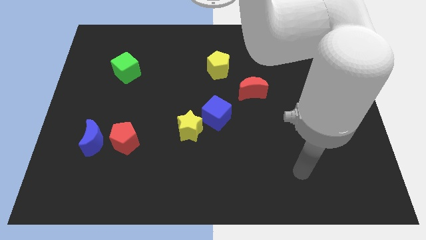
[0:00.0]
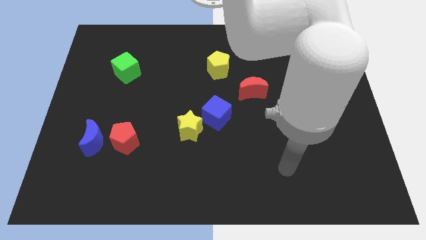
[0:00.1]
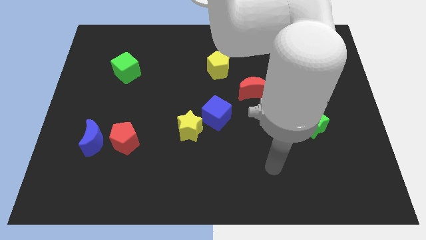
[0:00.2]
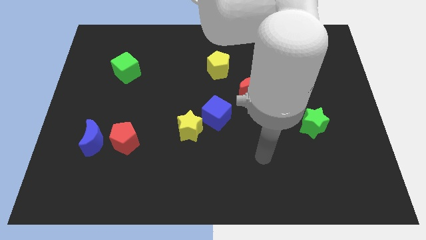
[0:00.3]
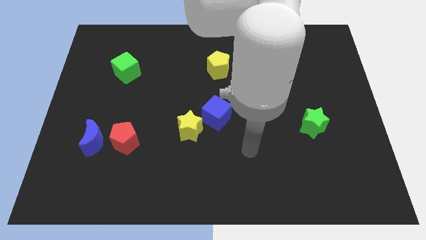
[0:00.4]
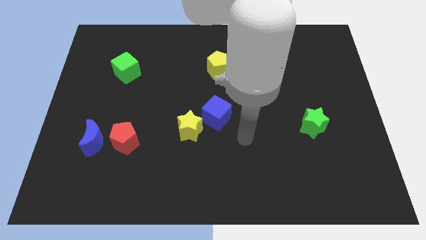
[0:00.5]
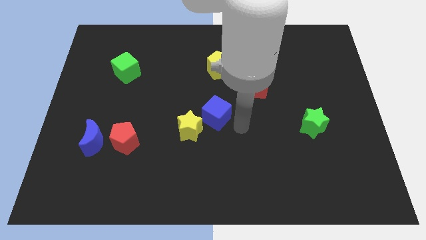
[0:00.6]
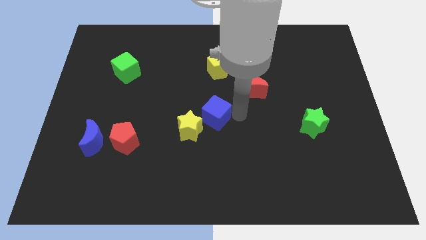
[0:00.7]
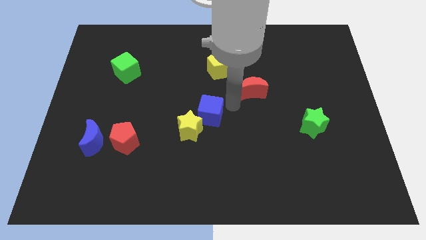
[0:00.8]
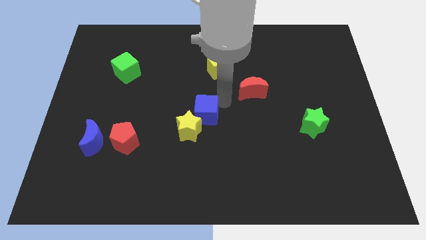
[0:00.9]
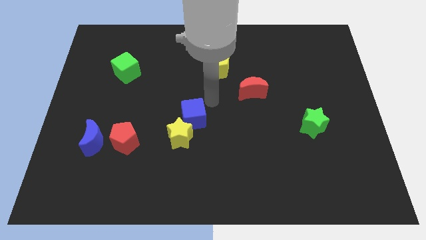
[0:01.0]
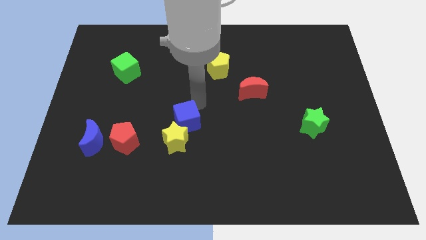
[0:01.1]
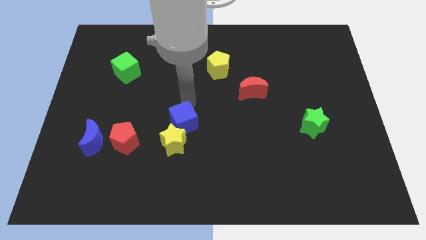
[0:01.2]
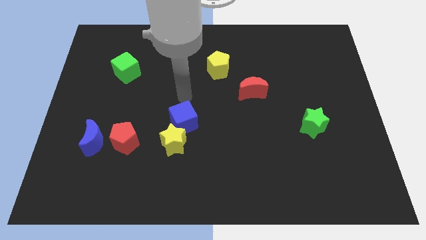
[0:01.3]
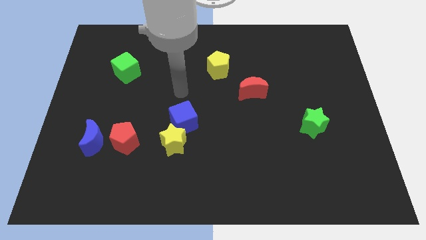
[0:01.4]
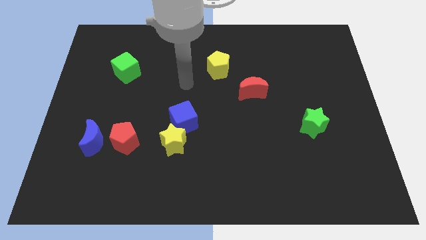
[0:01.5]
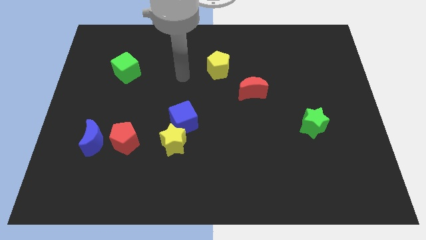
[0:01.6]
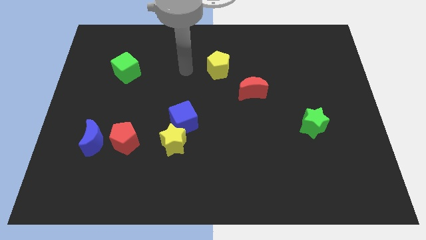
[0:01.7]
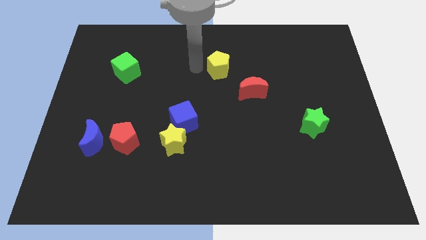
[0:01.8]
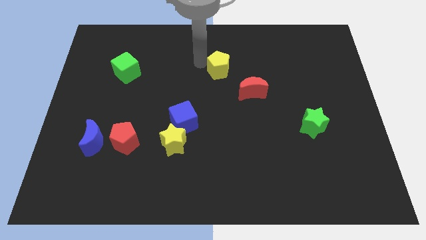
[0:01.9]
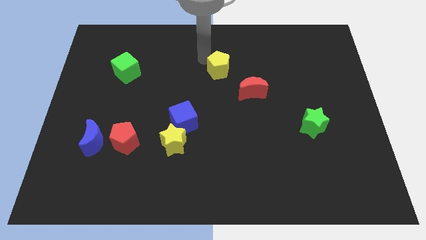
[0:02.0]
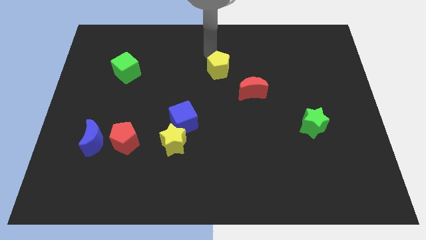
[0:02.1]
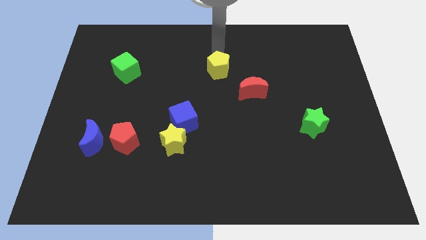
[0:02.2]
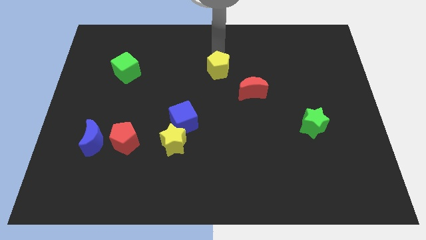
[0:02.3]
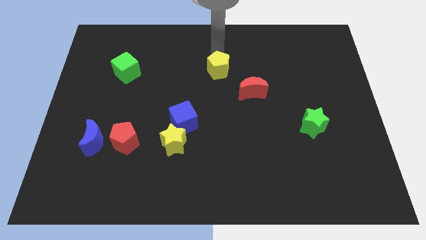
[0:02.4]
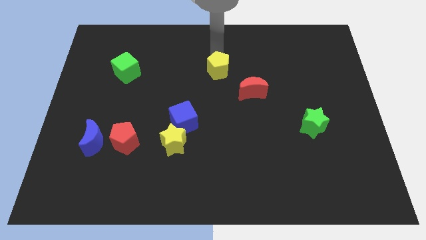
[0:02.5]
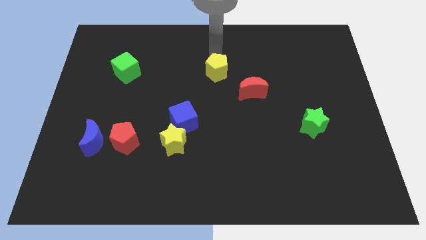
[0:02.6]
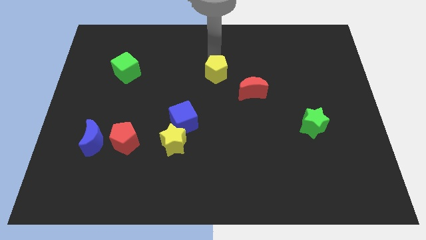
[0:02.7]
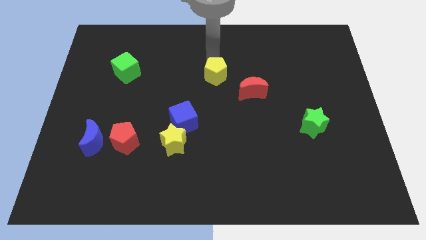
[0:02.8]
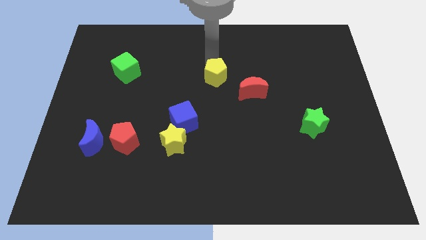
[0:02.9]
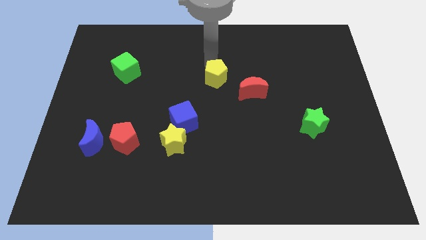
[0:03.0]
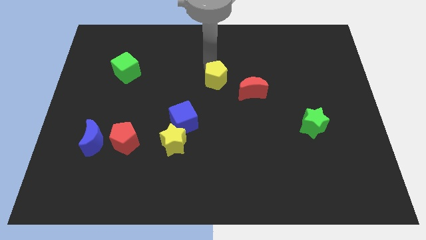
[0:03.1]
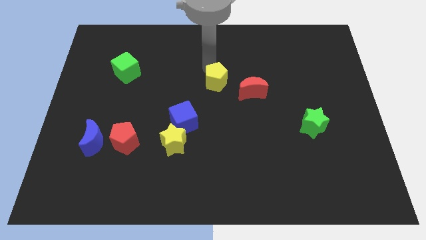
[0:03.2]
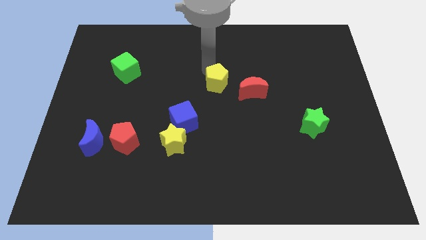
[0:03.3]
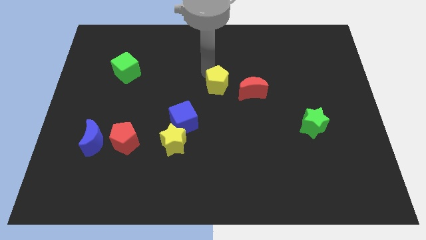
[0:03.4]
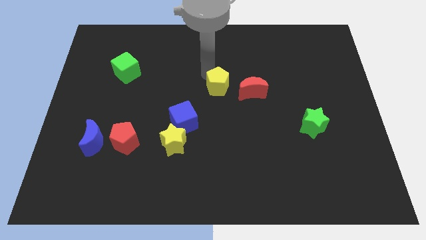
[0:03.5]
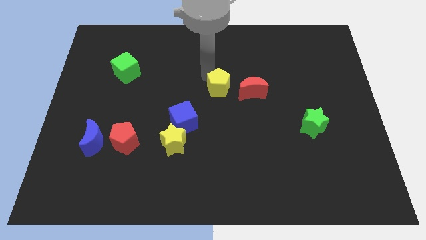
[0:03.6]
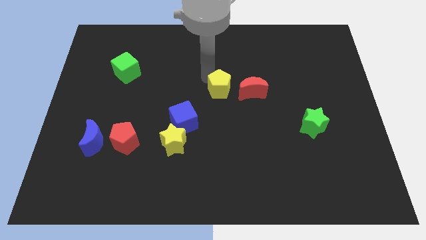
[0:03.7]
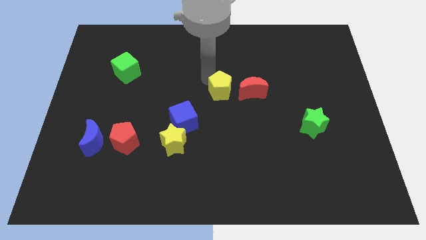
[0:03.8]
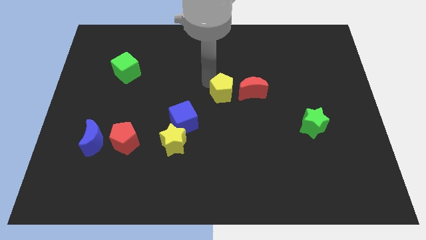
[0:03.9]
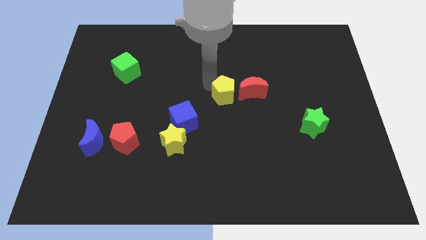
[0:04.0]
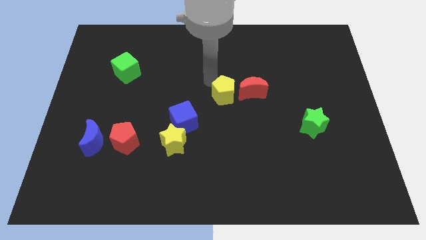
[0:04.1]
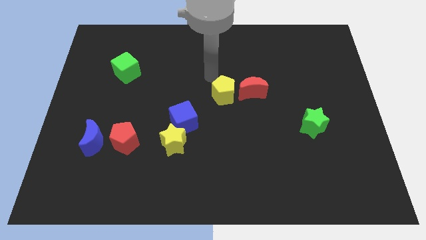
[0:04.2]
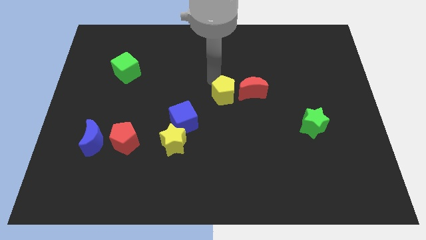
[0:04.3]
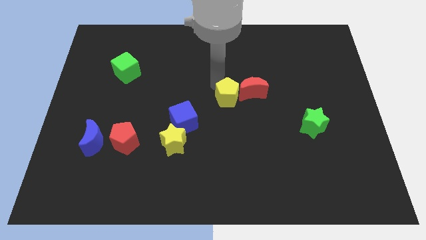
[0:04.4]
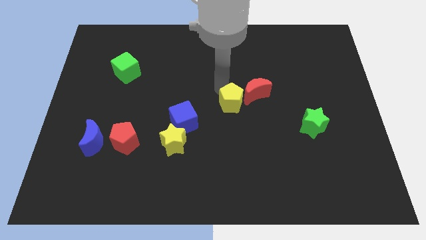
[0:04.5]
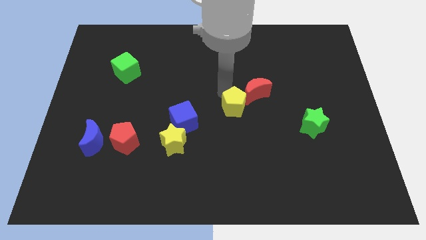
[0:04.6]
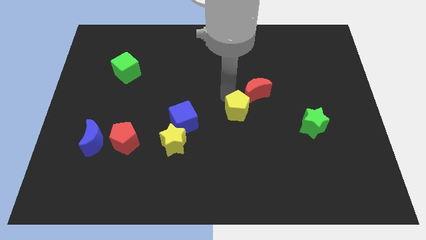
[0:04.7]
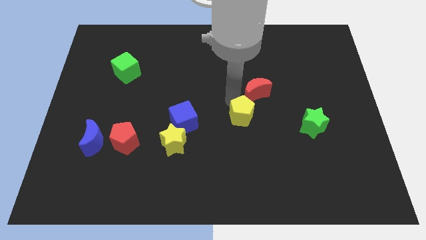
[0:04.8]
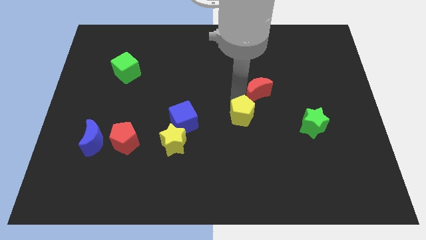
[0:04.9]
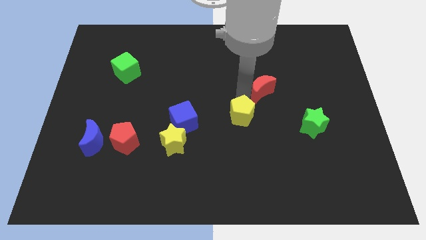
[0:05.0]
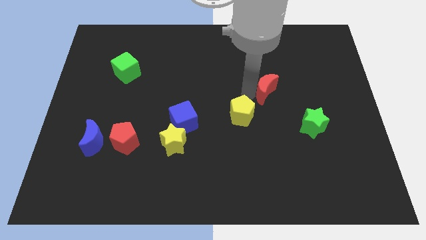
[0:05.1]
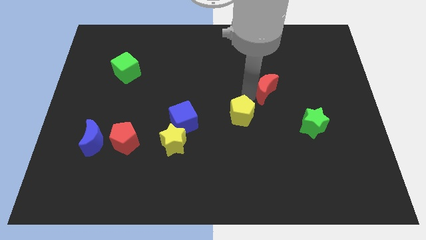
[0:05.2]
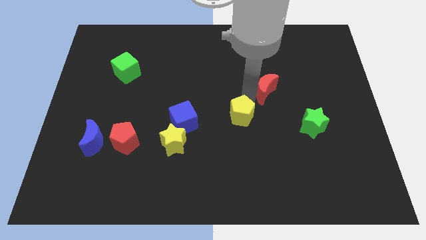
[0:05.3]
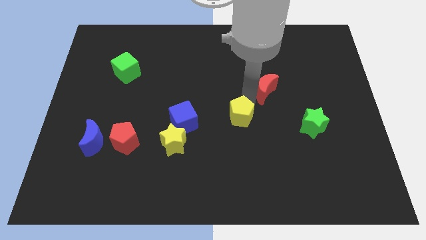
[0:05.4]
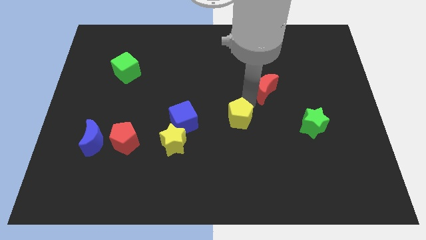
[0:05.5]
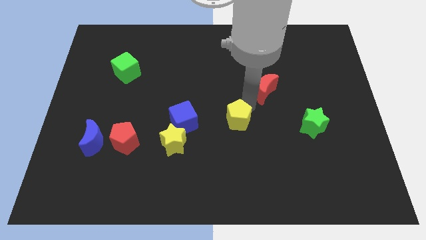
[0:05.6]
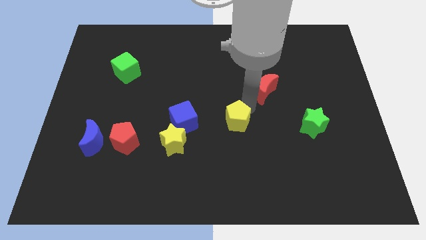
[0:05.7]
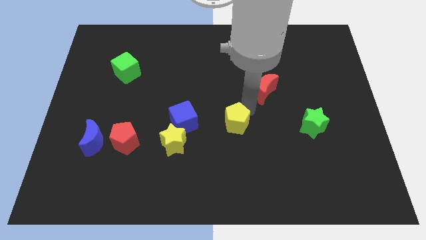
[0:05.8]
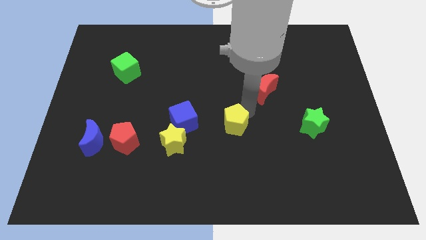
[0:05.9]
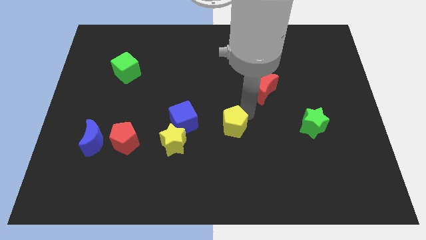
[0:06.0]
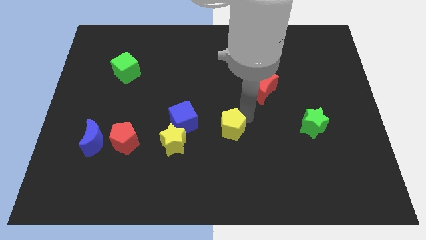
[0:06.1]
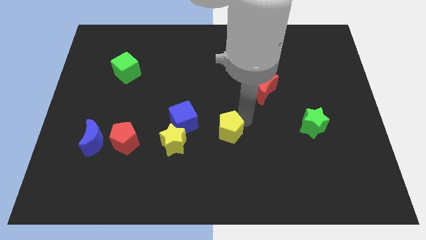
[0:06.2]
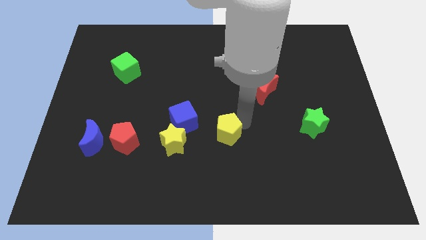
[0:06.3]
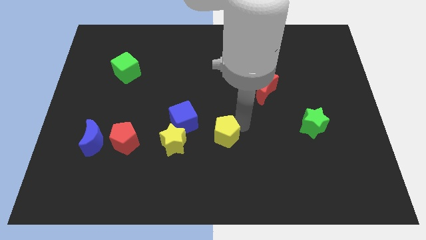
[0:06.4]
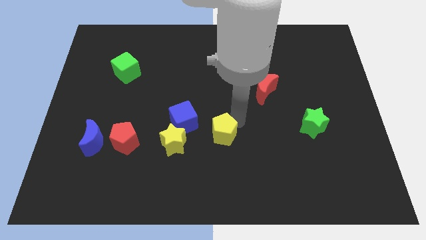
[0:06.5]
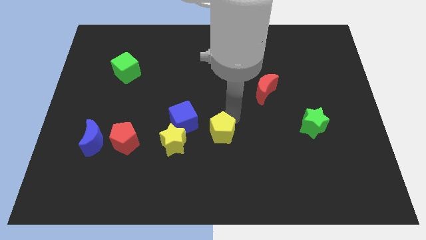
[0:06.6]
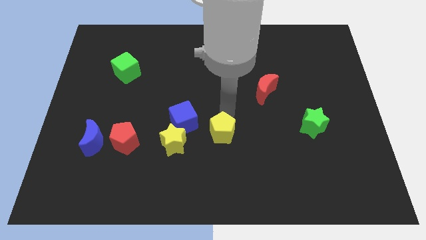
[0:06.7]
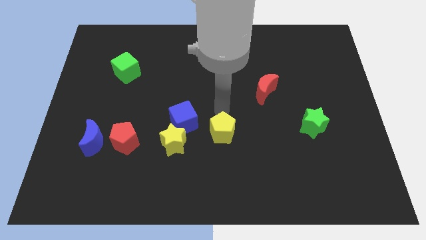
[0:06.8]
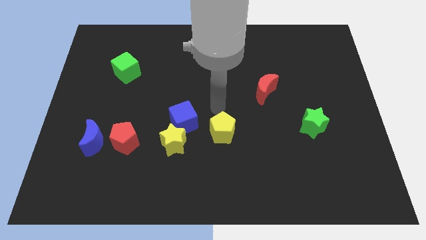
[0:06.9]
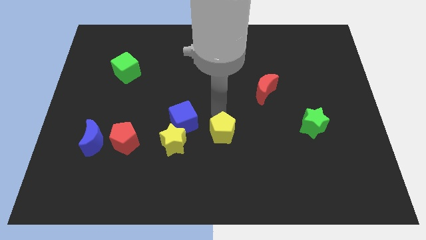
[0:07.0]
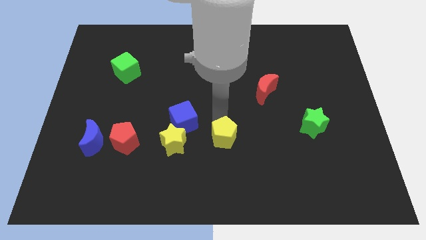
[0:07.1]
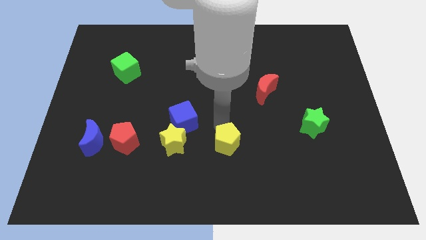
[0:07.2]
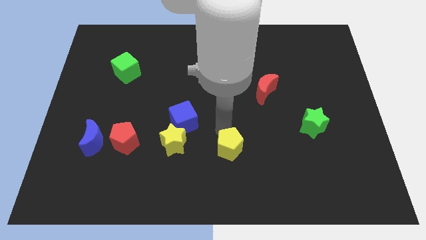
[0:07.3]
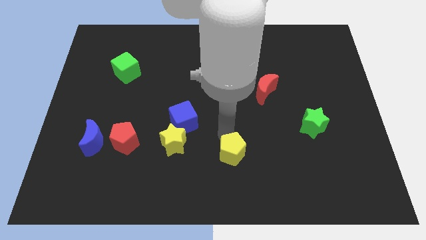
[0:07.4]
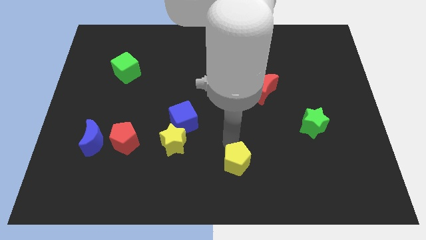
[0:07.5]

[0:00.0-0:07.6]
move the yellow pentagon to the bottom side
